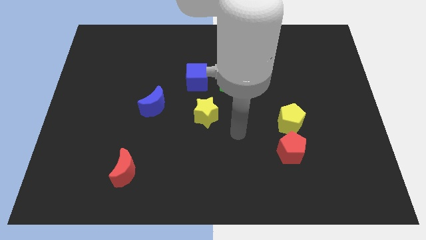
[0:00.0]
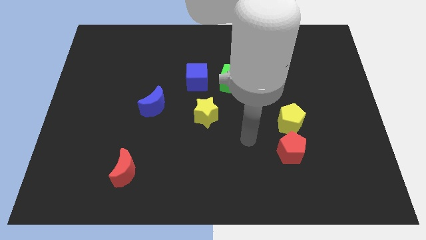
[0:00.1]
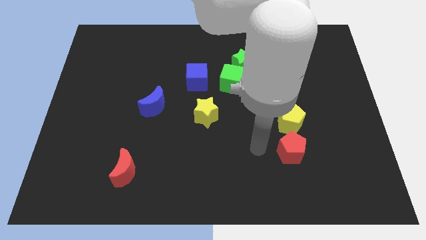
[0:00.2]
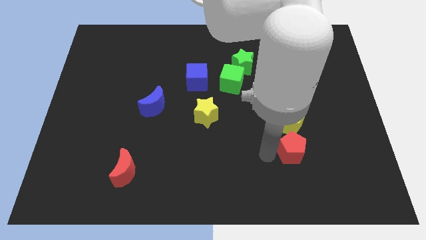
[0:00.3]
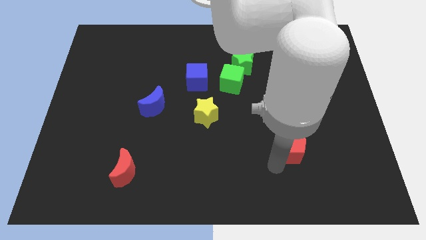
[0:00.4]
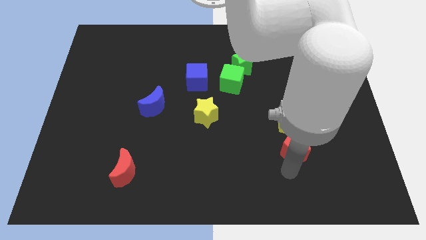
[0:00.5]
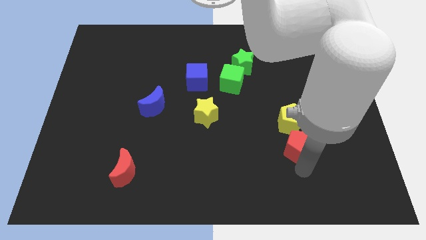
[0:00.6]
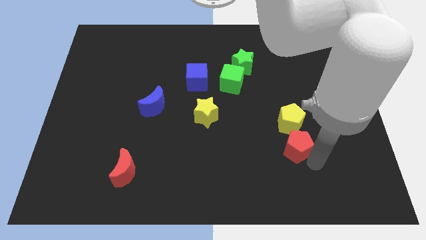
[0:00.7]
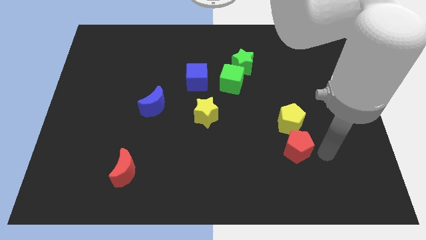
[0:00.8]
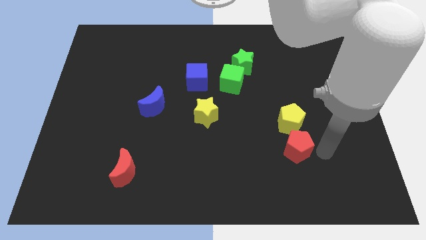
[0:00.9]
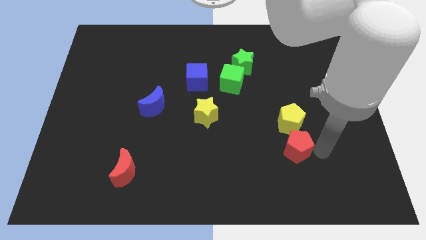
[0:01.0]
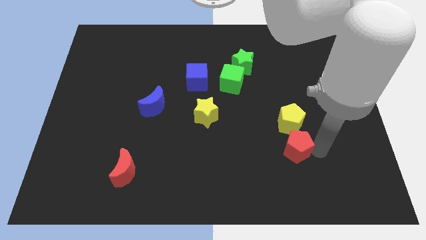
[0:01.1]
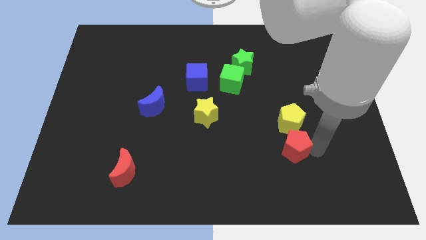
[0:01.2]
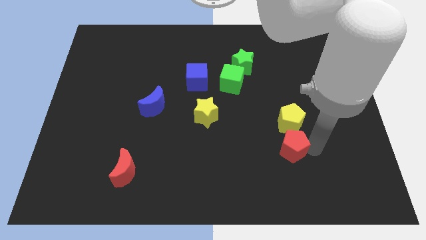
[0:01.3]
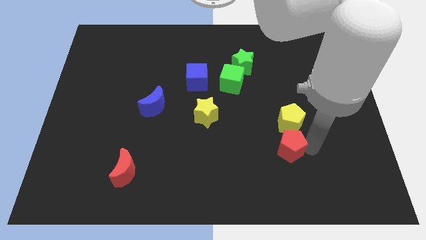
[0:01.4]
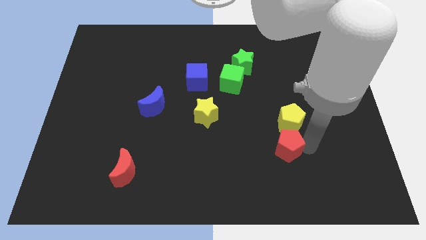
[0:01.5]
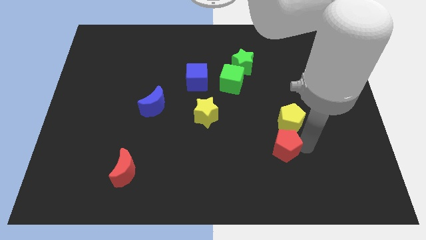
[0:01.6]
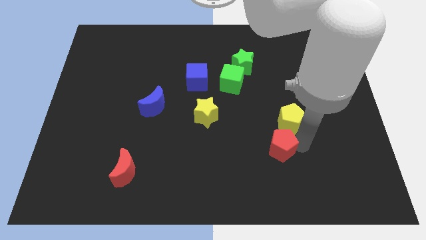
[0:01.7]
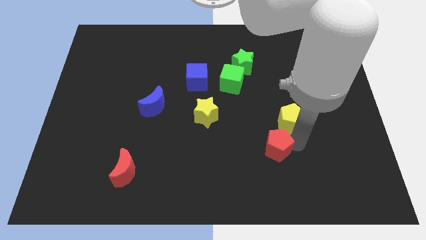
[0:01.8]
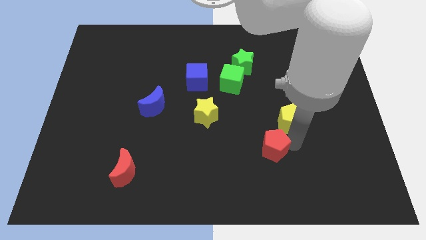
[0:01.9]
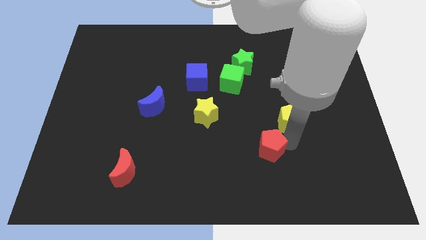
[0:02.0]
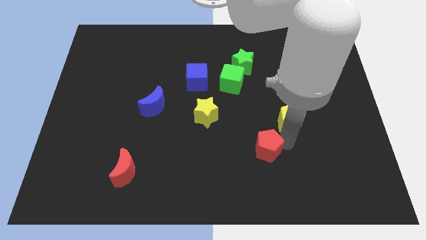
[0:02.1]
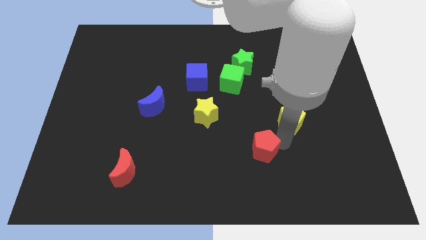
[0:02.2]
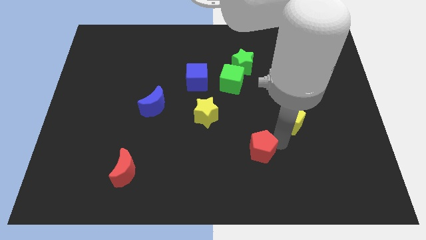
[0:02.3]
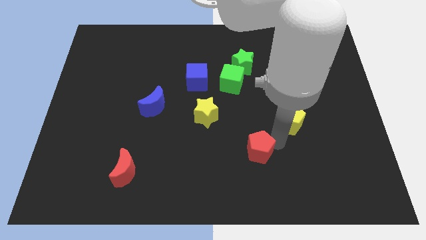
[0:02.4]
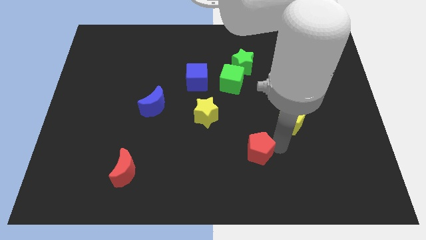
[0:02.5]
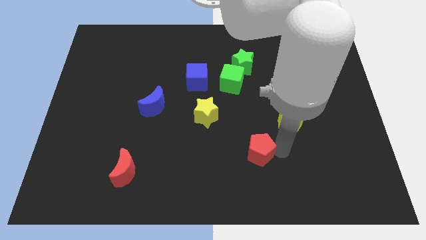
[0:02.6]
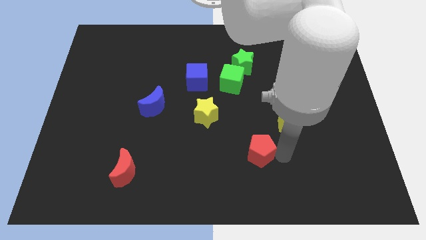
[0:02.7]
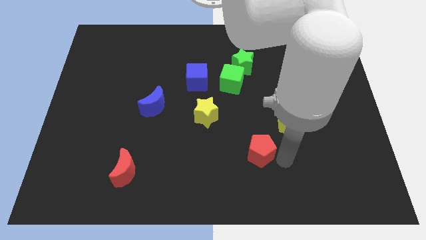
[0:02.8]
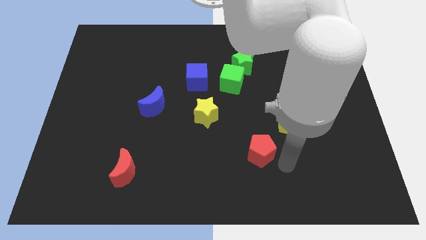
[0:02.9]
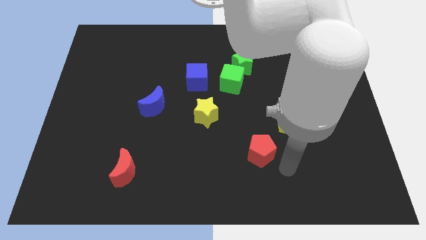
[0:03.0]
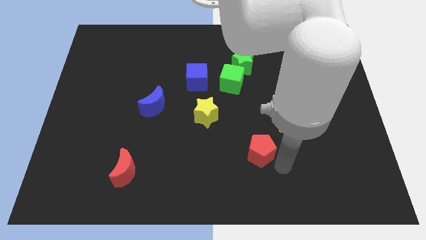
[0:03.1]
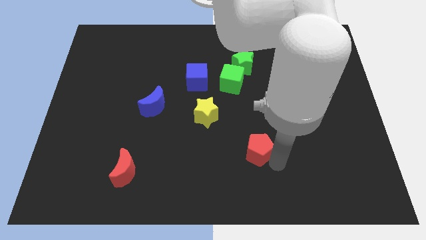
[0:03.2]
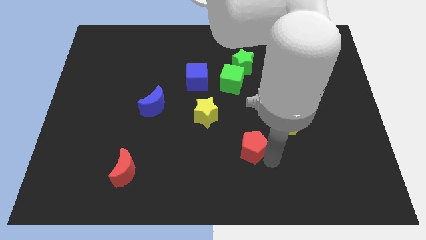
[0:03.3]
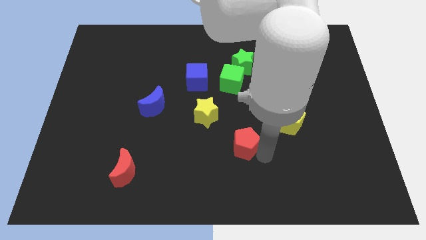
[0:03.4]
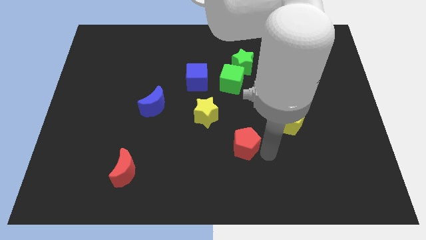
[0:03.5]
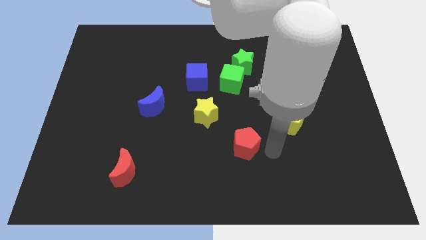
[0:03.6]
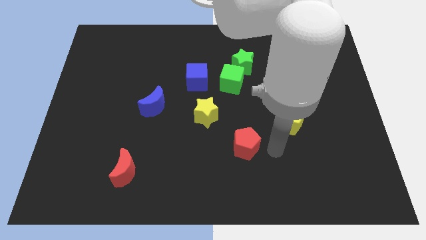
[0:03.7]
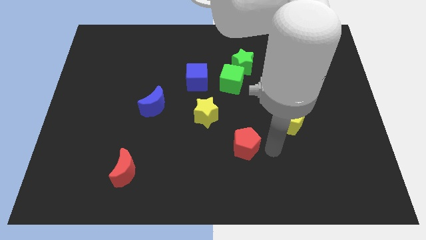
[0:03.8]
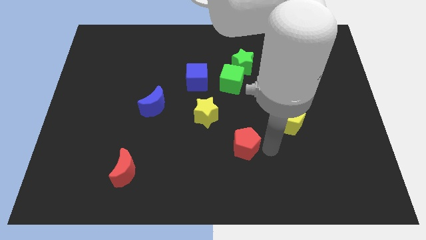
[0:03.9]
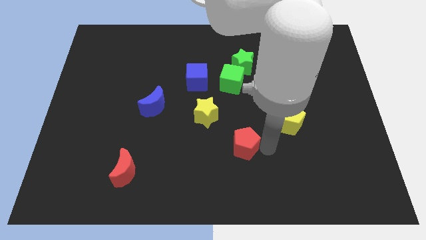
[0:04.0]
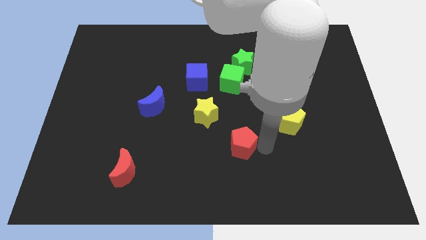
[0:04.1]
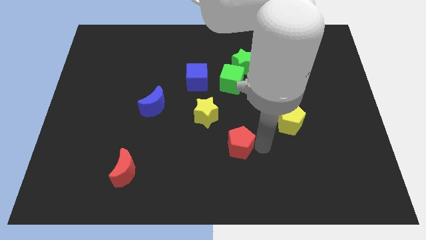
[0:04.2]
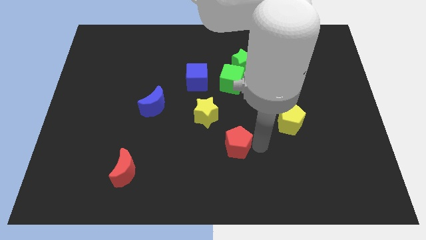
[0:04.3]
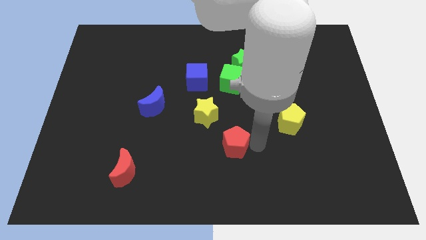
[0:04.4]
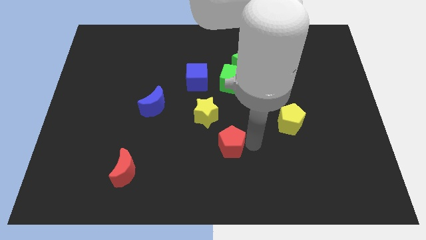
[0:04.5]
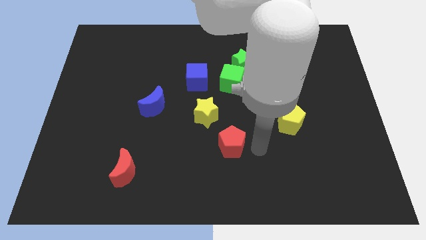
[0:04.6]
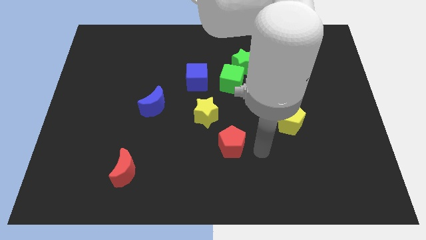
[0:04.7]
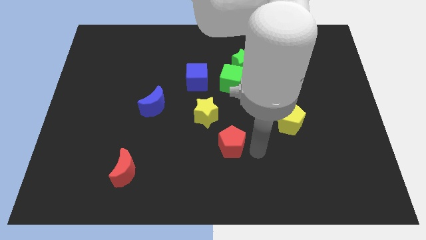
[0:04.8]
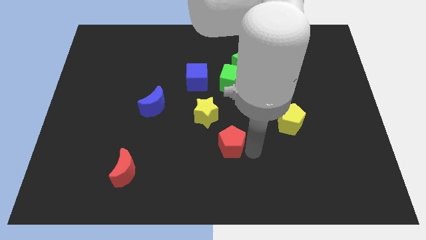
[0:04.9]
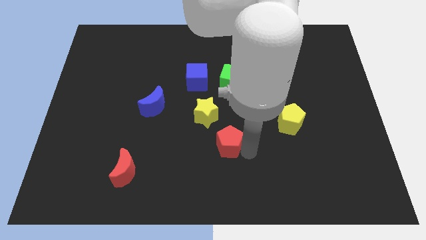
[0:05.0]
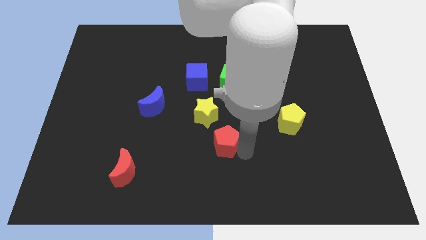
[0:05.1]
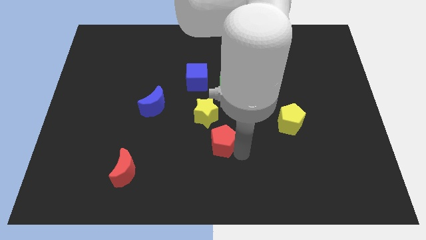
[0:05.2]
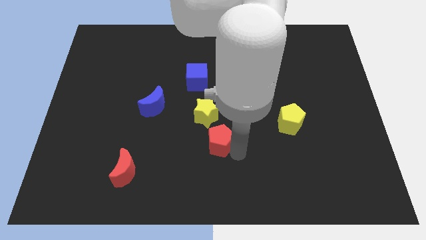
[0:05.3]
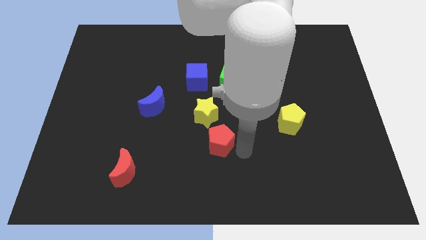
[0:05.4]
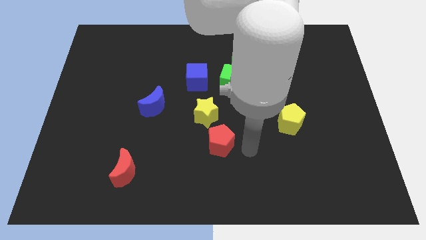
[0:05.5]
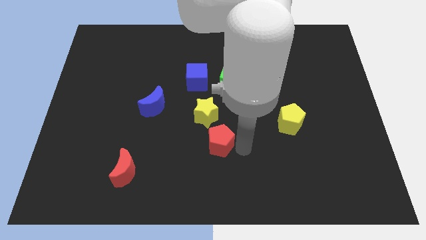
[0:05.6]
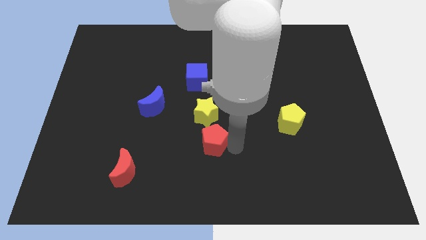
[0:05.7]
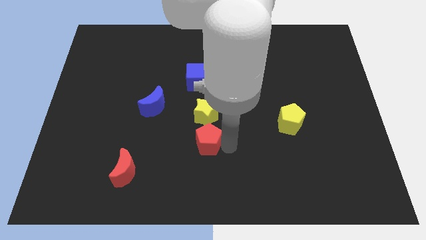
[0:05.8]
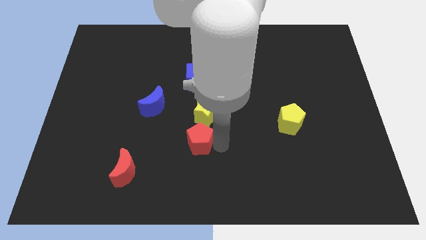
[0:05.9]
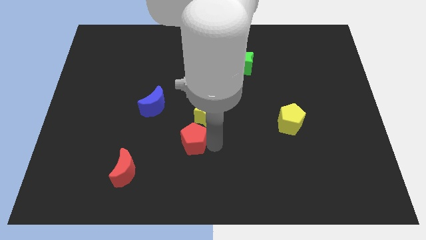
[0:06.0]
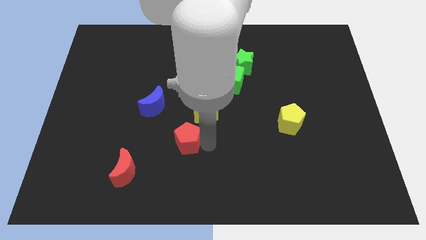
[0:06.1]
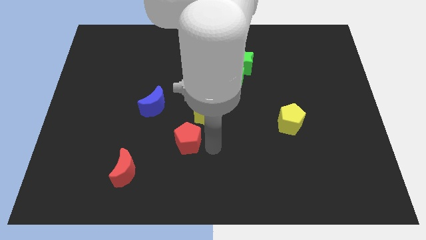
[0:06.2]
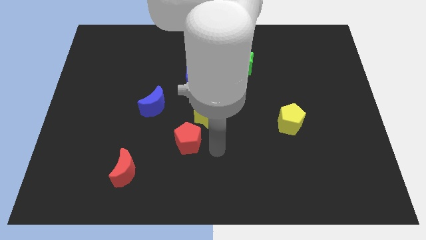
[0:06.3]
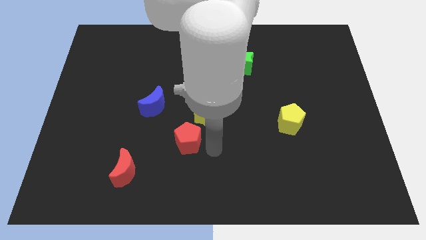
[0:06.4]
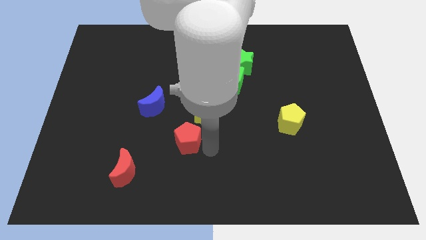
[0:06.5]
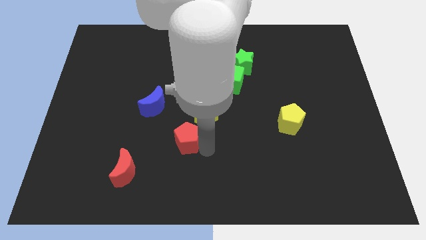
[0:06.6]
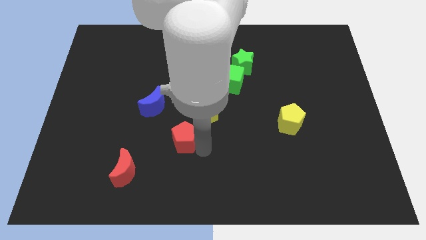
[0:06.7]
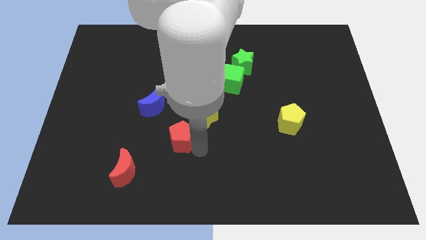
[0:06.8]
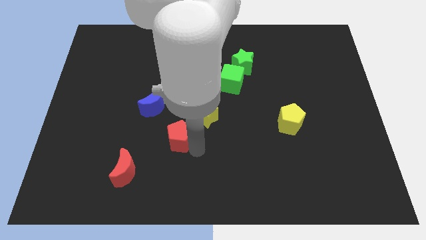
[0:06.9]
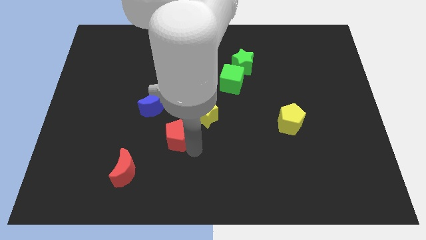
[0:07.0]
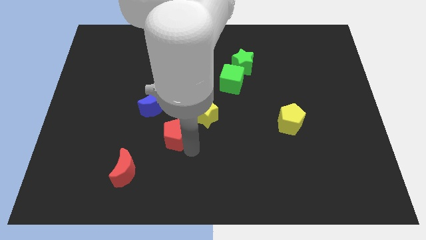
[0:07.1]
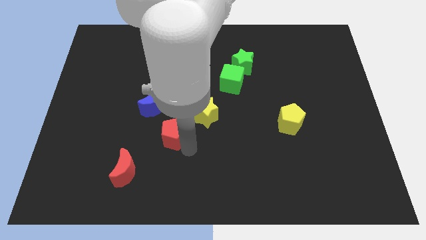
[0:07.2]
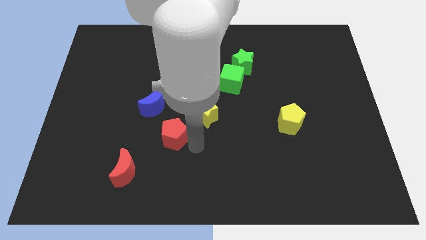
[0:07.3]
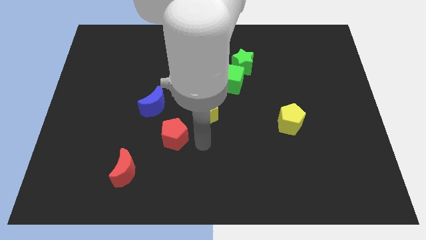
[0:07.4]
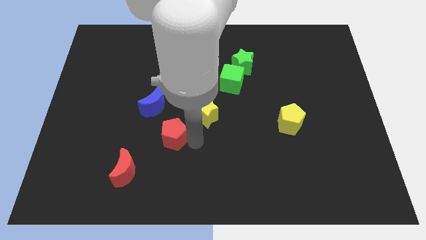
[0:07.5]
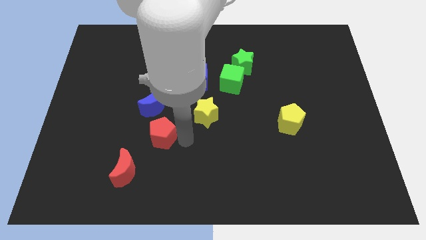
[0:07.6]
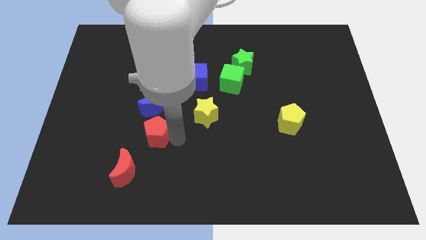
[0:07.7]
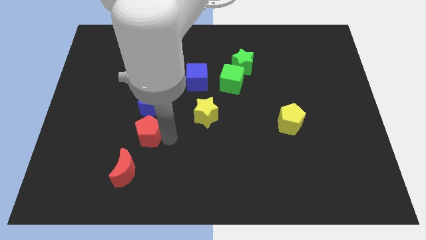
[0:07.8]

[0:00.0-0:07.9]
push the red pentagon to the top of the red moon

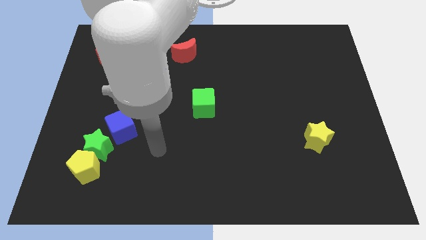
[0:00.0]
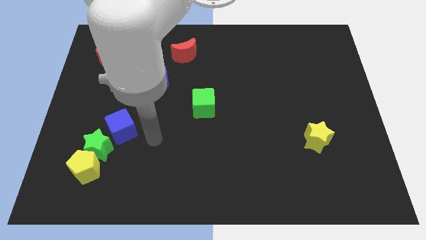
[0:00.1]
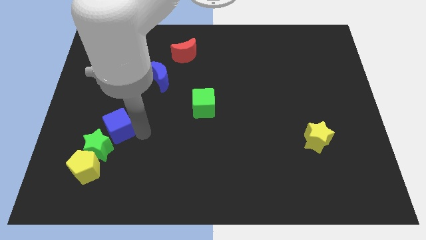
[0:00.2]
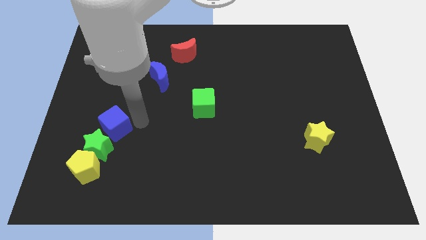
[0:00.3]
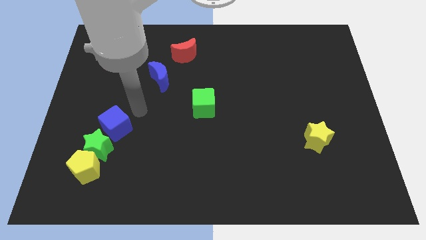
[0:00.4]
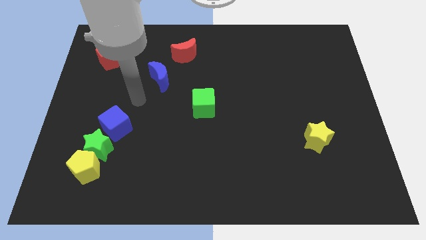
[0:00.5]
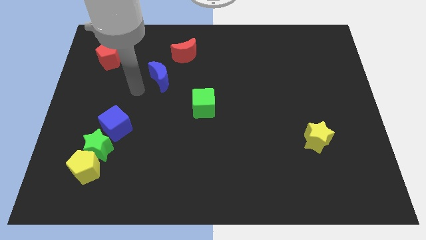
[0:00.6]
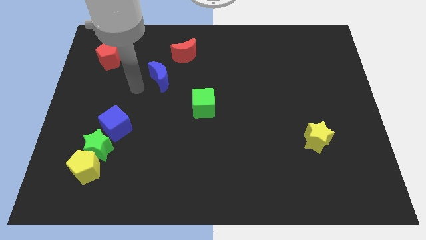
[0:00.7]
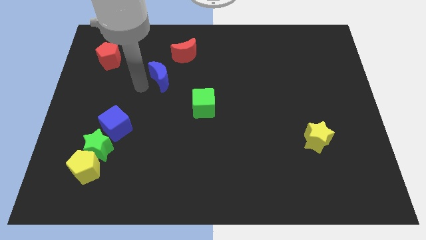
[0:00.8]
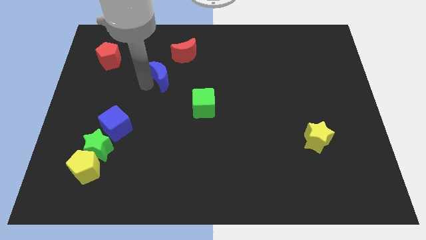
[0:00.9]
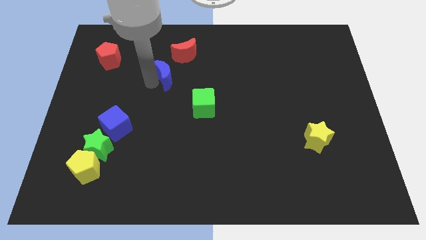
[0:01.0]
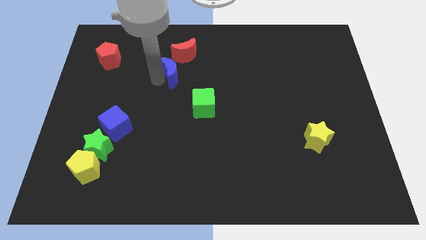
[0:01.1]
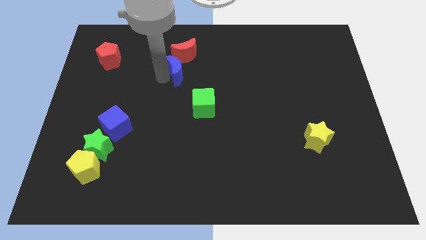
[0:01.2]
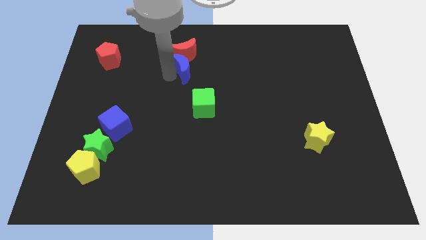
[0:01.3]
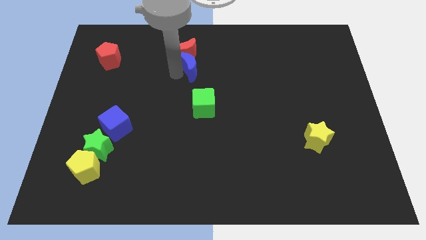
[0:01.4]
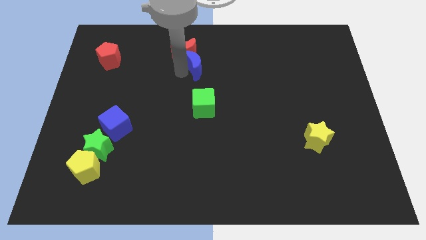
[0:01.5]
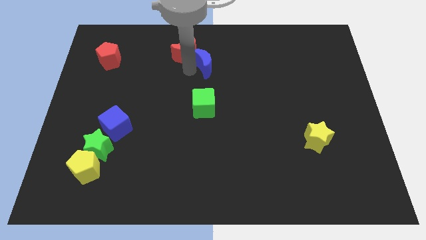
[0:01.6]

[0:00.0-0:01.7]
move the blue moon right of the red moon
